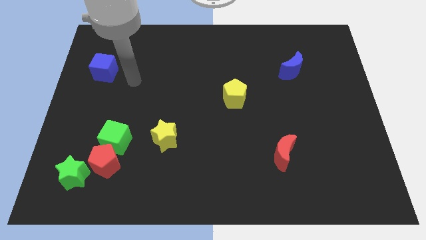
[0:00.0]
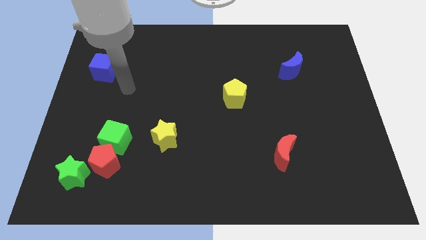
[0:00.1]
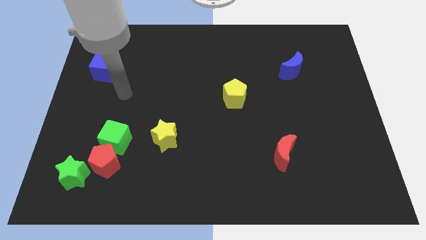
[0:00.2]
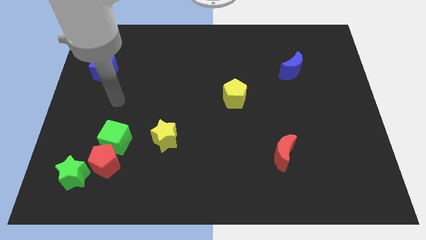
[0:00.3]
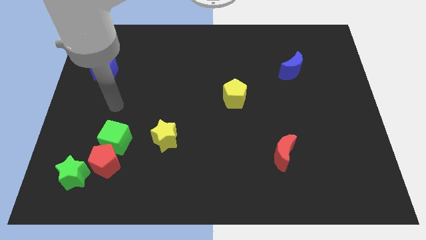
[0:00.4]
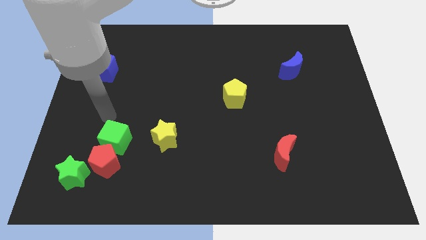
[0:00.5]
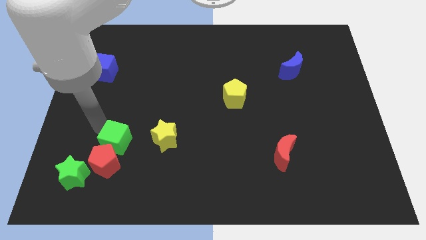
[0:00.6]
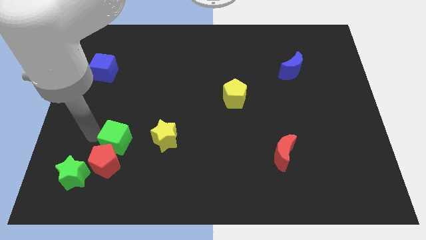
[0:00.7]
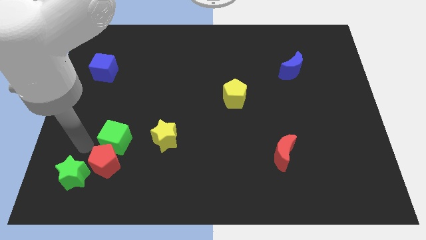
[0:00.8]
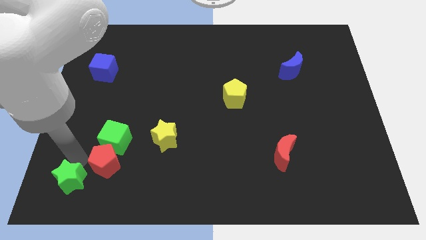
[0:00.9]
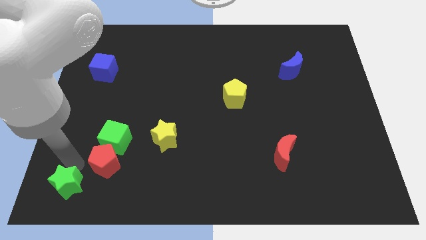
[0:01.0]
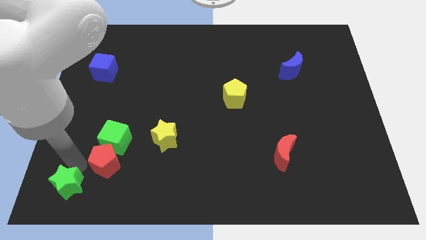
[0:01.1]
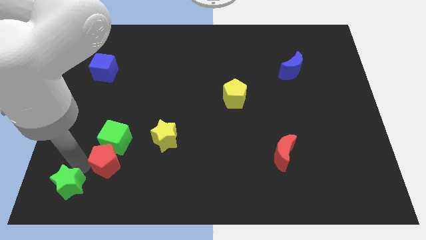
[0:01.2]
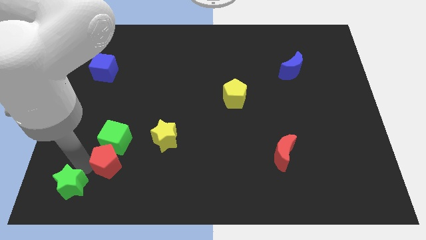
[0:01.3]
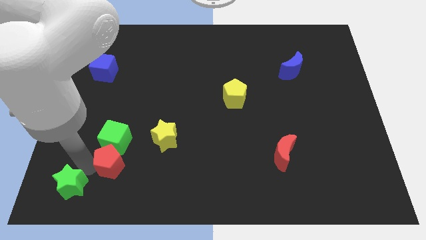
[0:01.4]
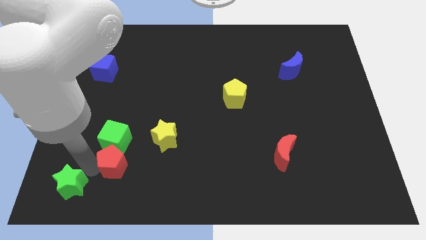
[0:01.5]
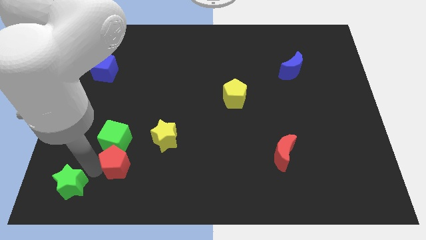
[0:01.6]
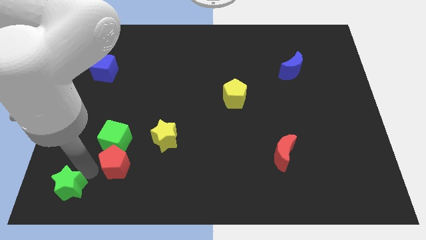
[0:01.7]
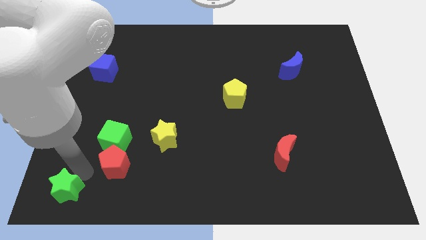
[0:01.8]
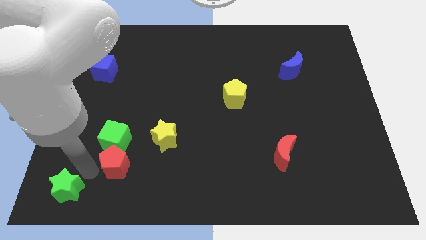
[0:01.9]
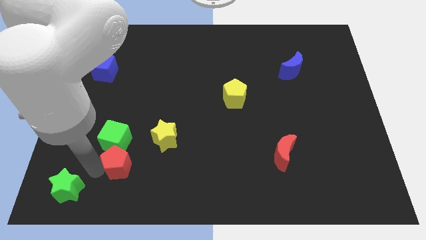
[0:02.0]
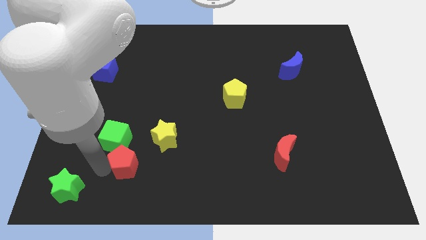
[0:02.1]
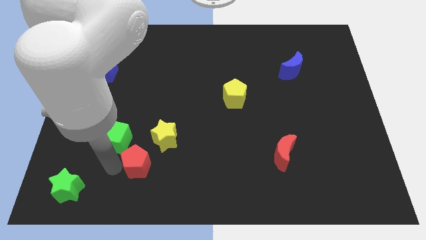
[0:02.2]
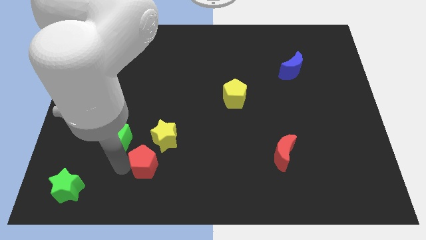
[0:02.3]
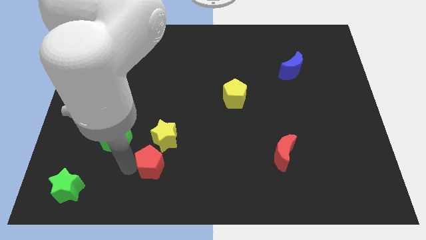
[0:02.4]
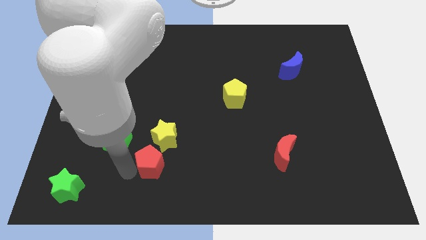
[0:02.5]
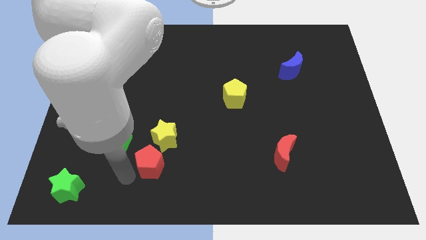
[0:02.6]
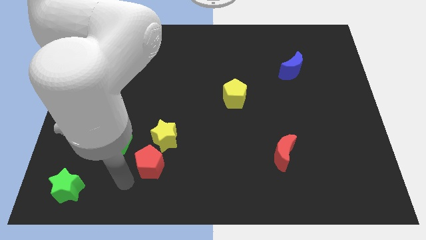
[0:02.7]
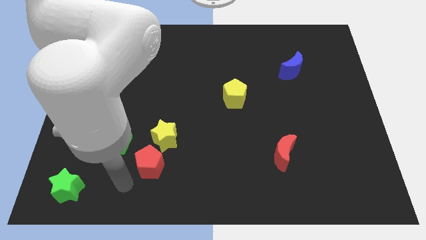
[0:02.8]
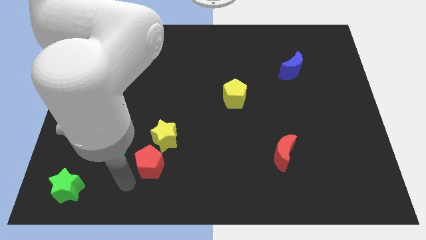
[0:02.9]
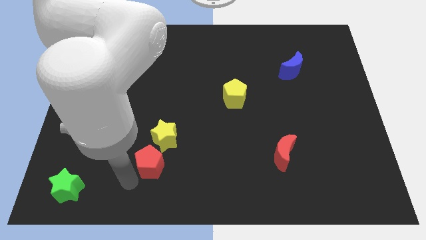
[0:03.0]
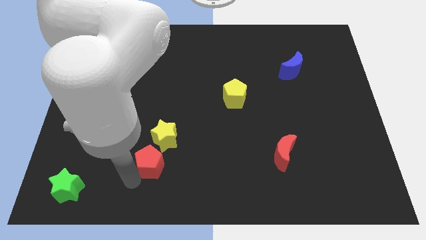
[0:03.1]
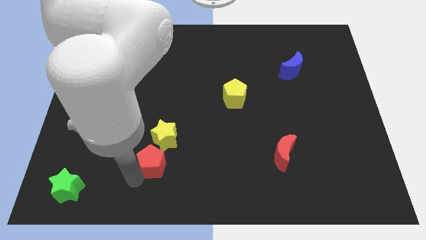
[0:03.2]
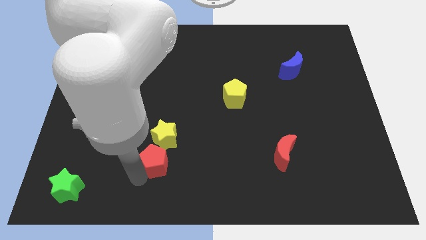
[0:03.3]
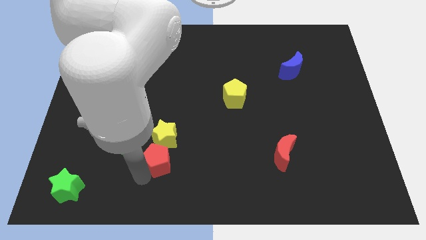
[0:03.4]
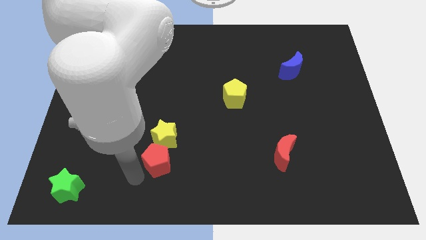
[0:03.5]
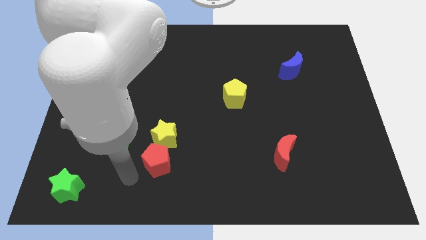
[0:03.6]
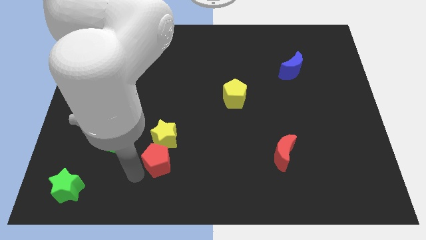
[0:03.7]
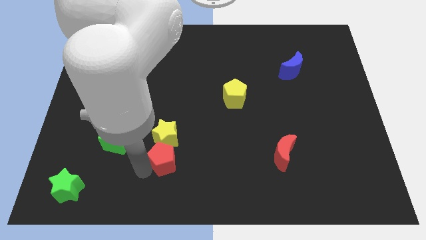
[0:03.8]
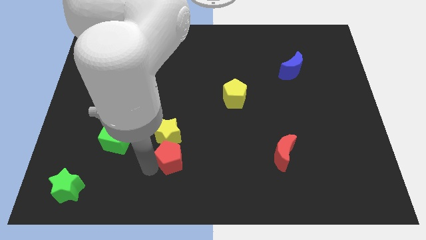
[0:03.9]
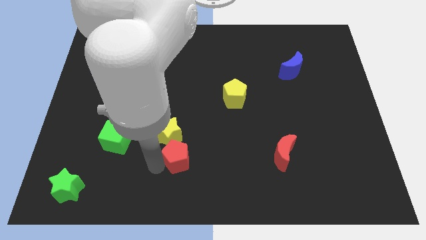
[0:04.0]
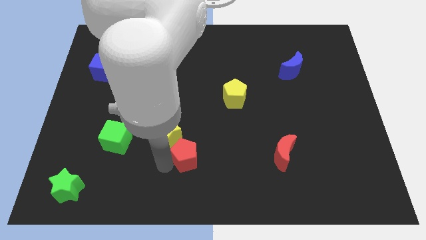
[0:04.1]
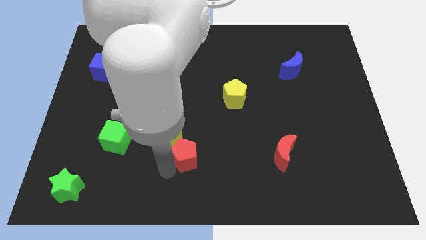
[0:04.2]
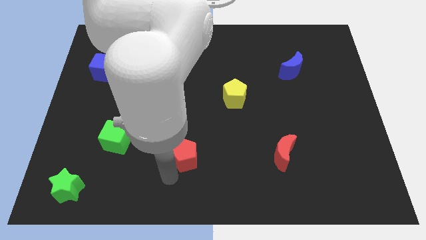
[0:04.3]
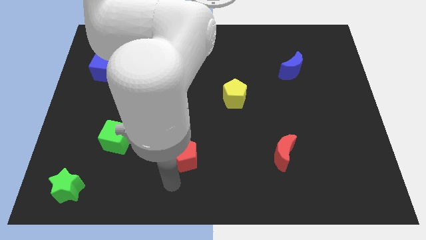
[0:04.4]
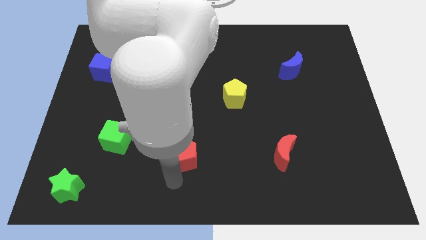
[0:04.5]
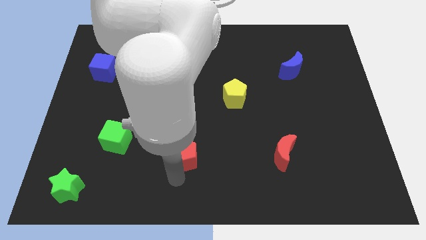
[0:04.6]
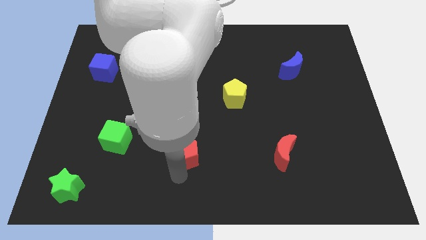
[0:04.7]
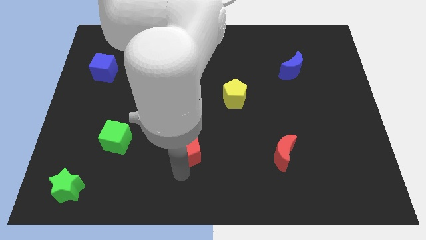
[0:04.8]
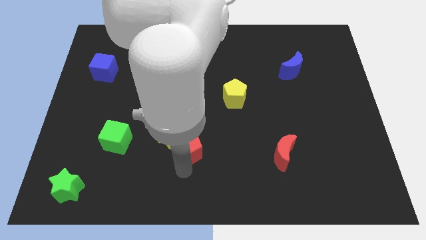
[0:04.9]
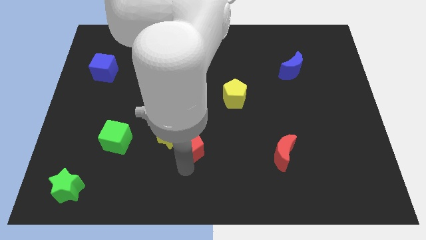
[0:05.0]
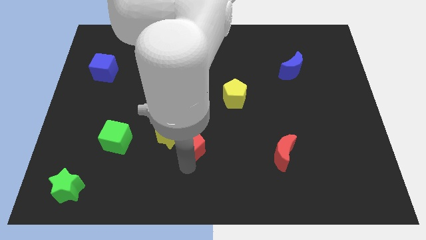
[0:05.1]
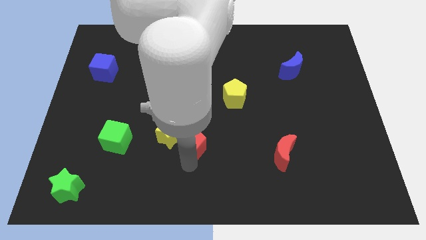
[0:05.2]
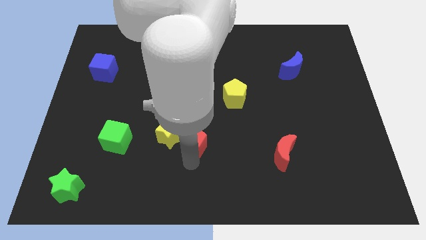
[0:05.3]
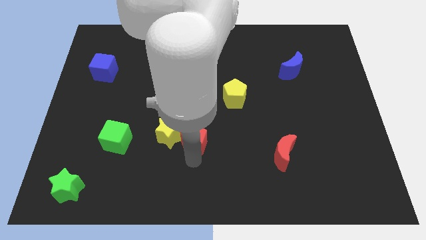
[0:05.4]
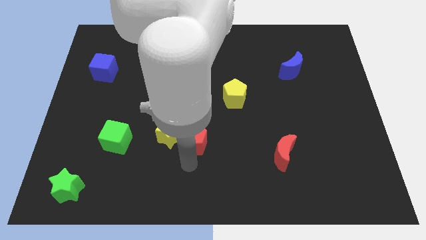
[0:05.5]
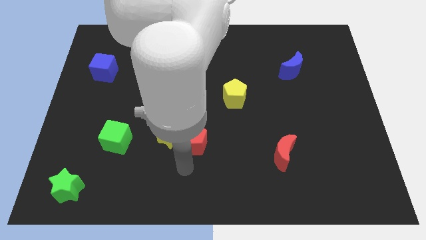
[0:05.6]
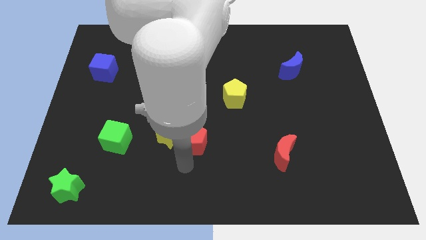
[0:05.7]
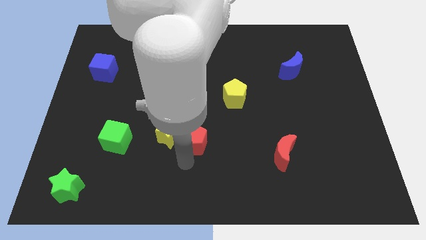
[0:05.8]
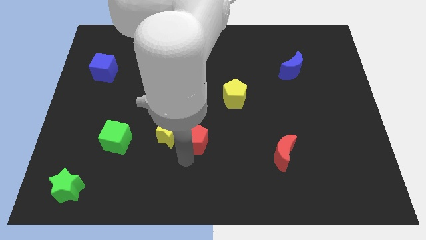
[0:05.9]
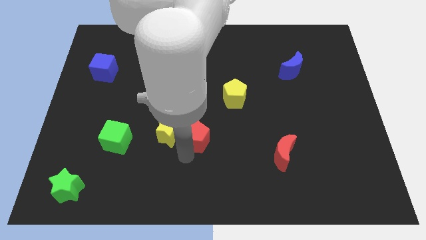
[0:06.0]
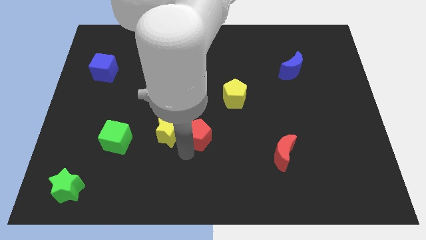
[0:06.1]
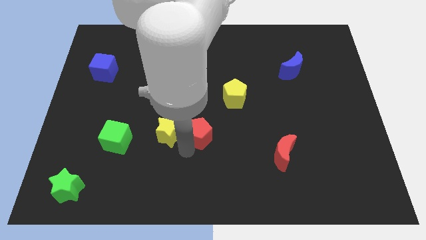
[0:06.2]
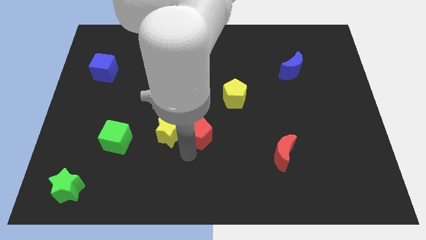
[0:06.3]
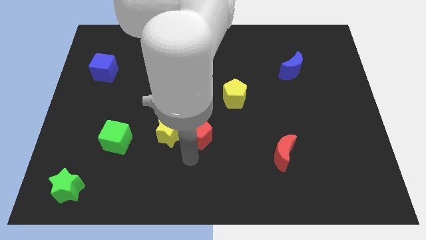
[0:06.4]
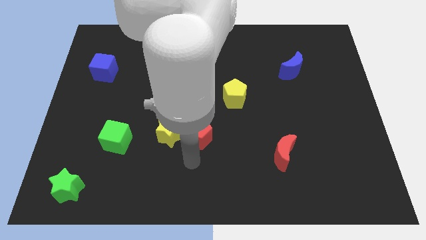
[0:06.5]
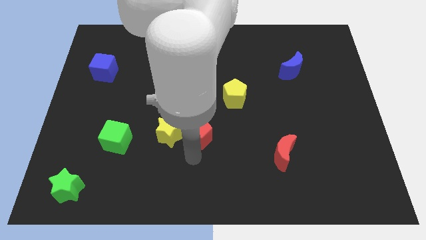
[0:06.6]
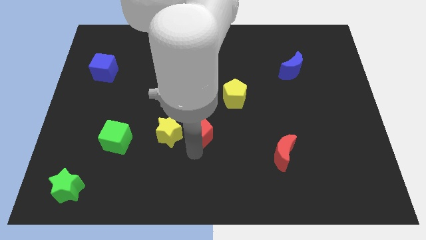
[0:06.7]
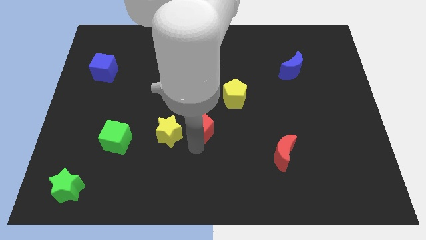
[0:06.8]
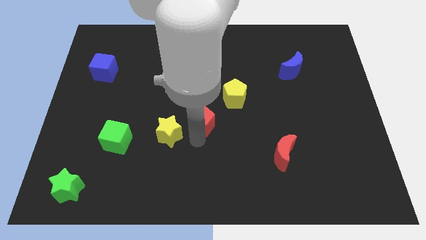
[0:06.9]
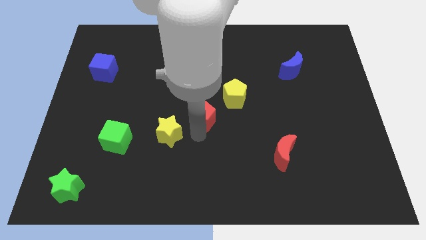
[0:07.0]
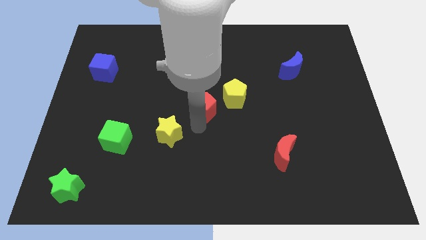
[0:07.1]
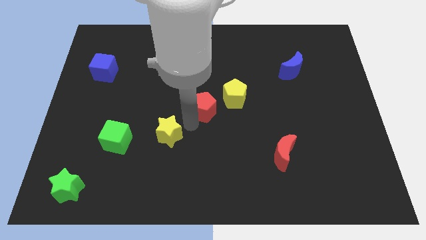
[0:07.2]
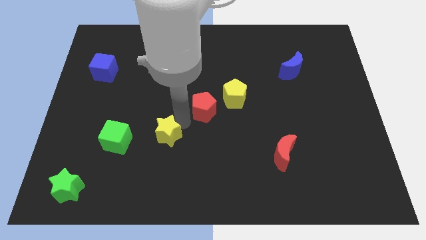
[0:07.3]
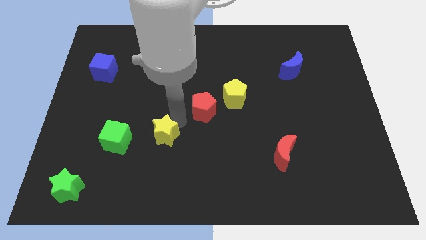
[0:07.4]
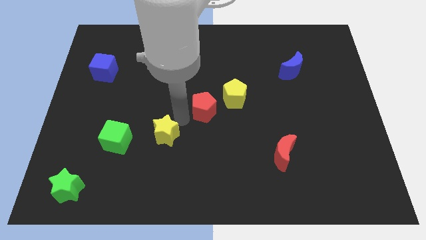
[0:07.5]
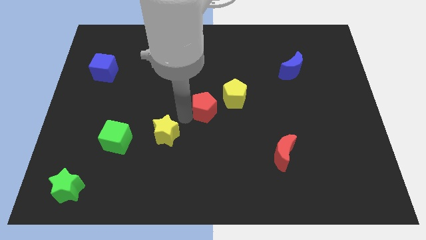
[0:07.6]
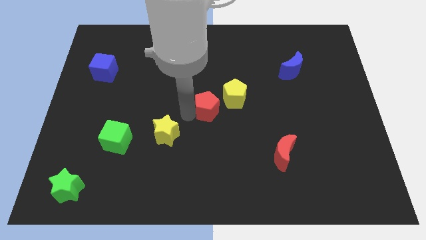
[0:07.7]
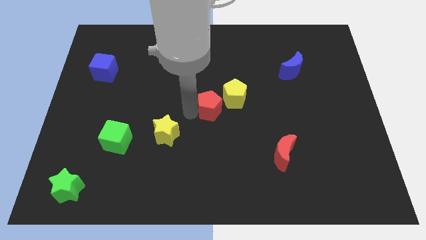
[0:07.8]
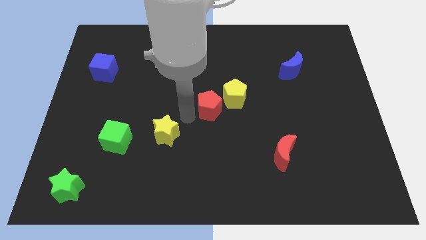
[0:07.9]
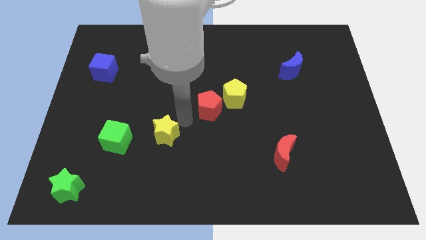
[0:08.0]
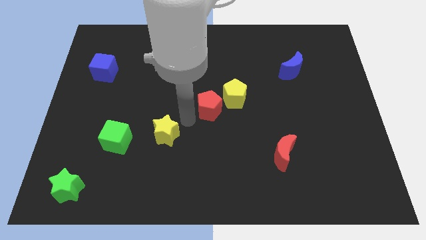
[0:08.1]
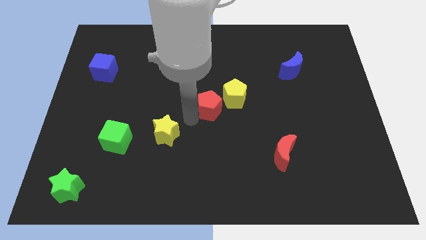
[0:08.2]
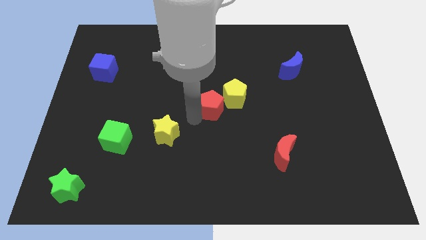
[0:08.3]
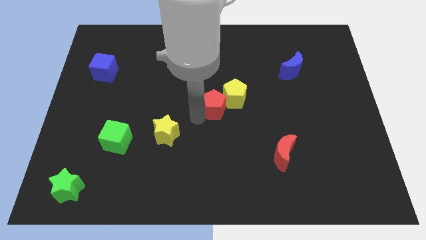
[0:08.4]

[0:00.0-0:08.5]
slide the red pentagon towards the yellow pentagon

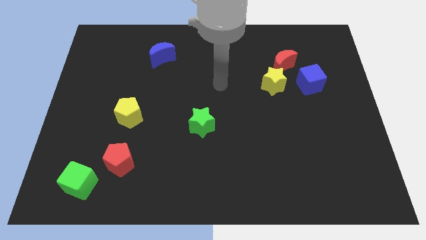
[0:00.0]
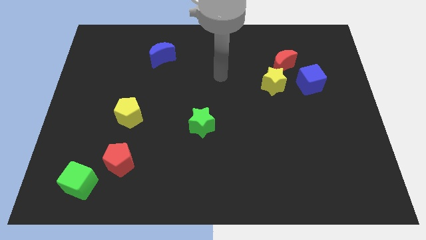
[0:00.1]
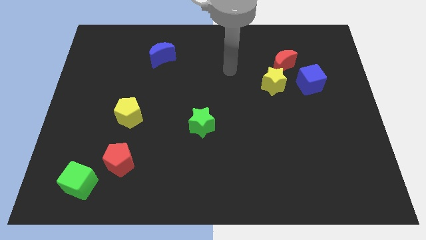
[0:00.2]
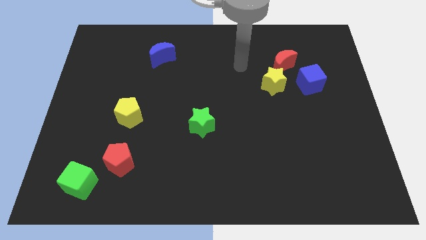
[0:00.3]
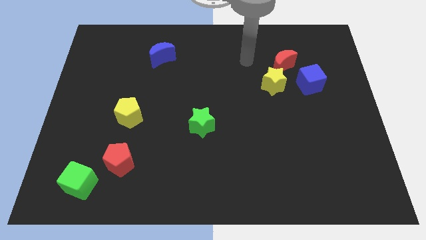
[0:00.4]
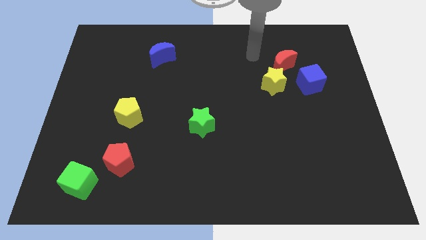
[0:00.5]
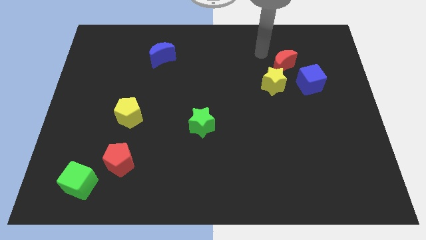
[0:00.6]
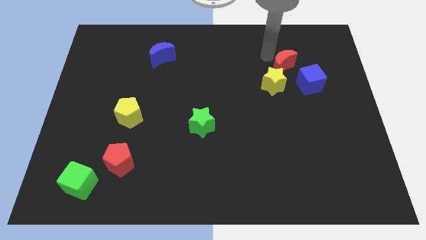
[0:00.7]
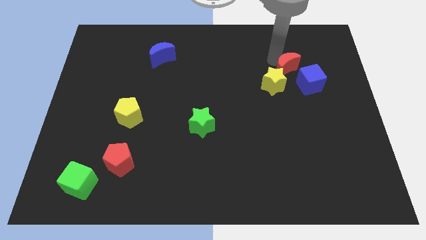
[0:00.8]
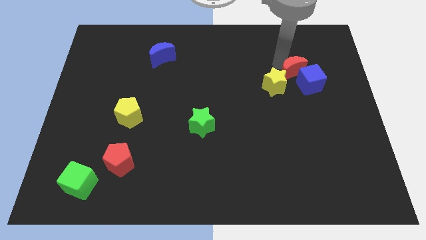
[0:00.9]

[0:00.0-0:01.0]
push the red moon next to the blue cube
